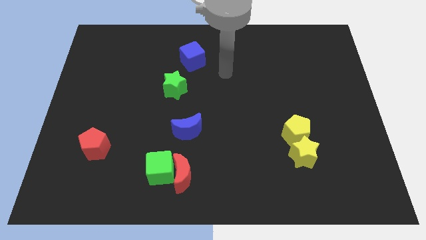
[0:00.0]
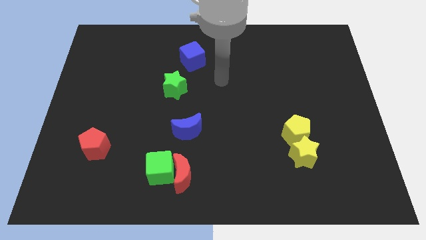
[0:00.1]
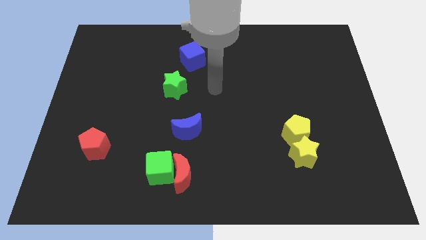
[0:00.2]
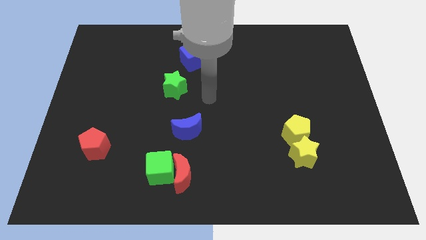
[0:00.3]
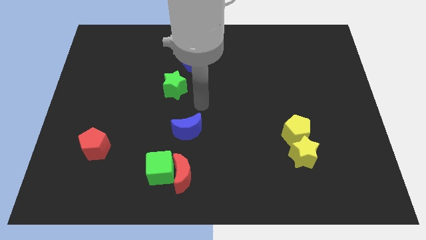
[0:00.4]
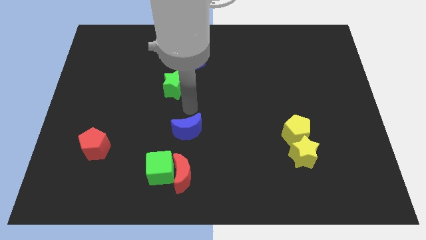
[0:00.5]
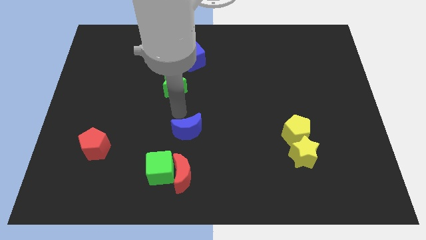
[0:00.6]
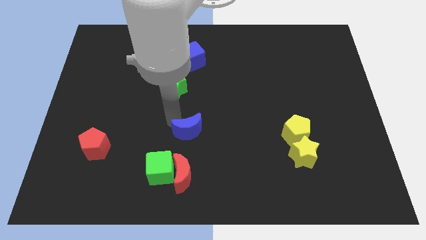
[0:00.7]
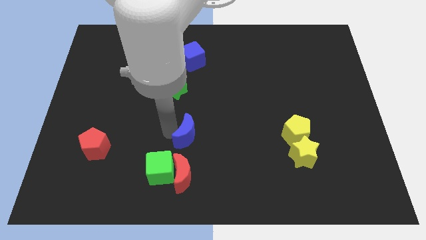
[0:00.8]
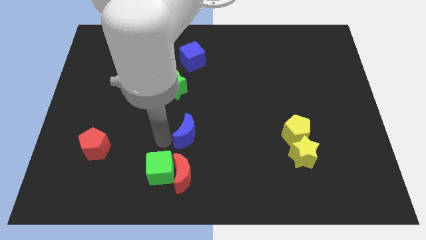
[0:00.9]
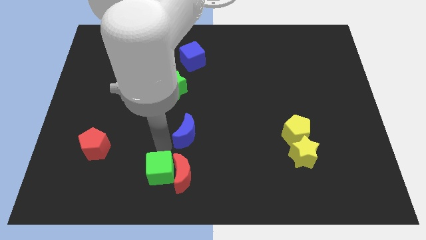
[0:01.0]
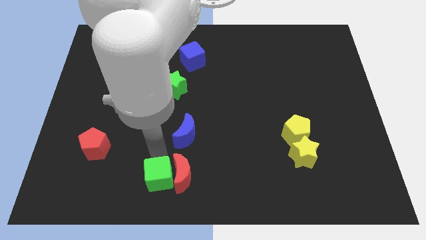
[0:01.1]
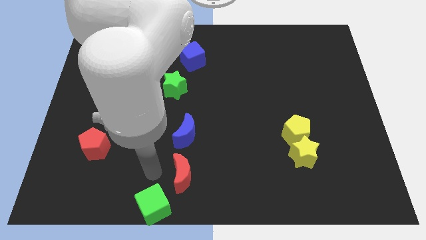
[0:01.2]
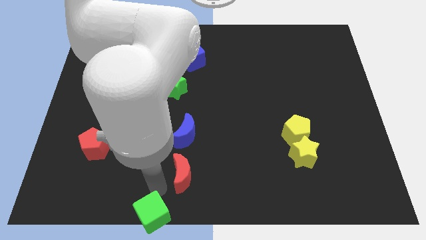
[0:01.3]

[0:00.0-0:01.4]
move the red moon away from the green cube

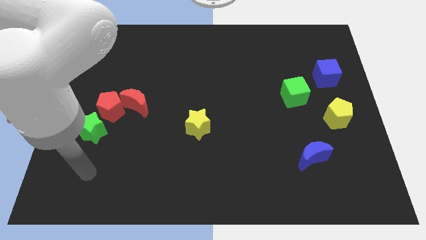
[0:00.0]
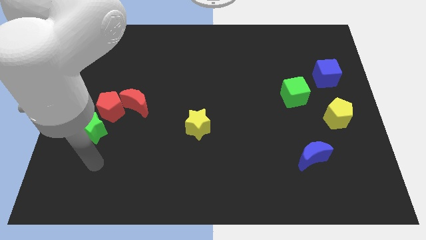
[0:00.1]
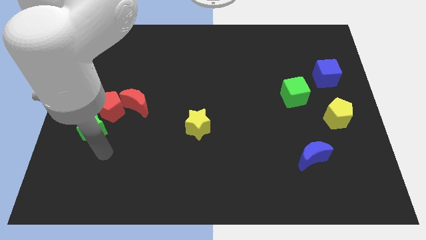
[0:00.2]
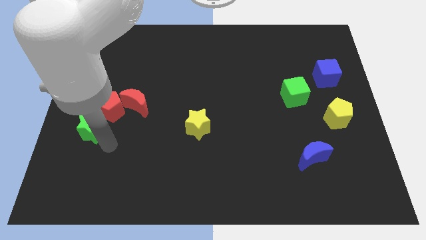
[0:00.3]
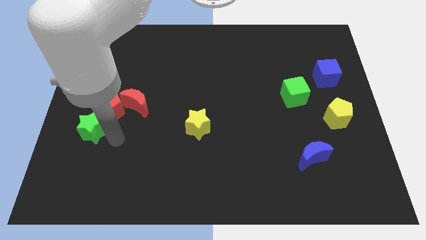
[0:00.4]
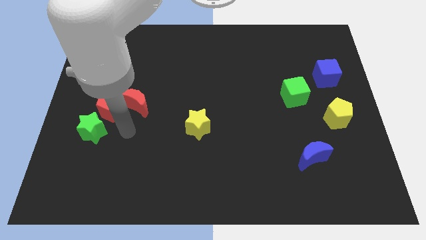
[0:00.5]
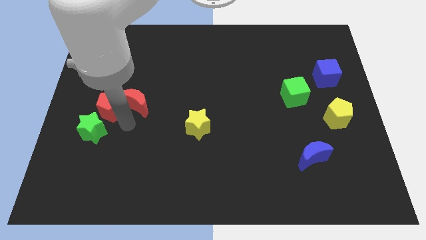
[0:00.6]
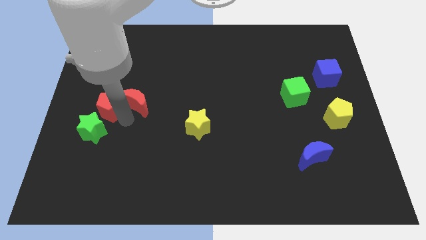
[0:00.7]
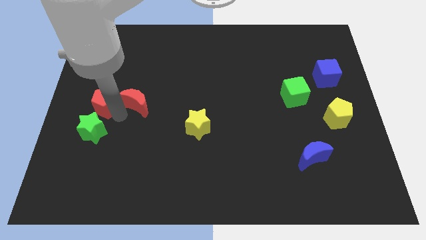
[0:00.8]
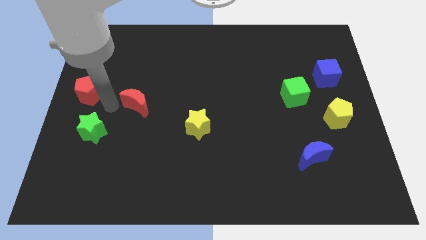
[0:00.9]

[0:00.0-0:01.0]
pull the red moon apart from the red pentagon

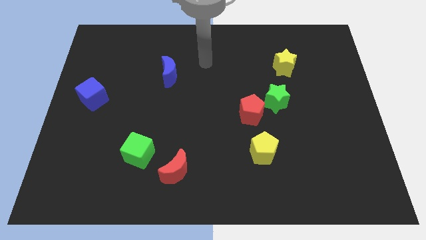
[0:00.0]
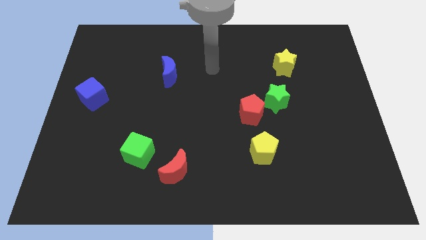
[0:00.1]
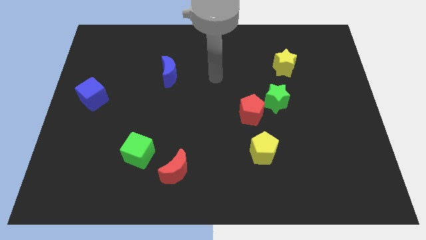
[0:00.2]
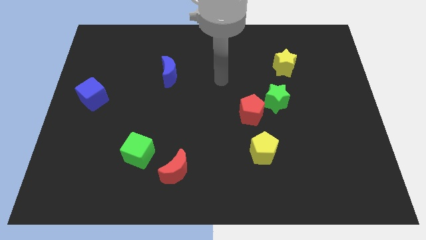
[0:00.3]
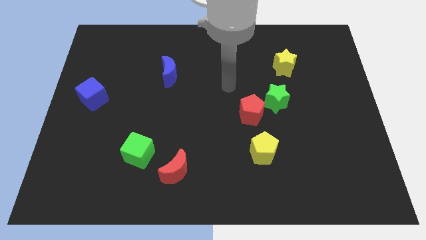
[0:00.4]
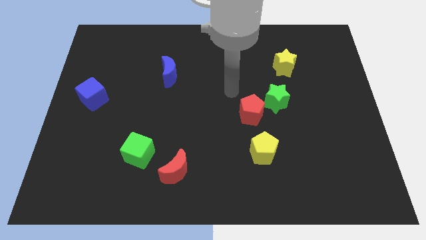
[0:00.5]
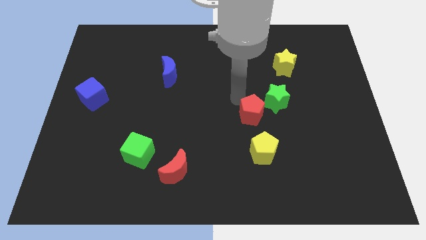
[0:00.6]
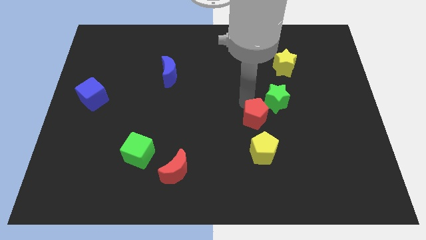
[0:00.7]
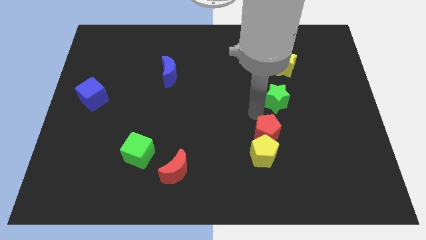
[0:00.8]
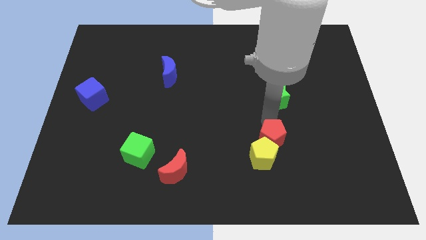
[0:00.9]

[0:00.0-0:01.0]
pull the green star apart from the red pentagon

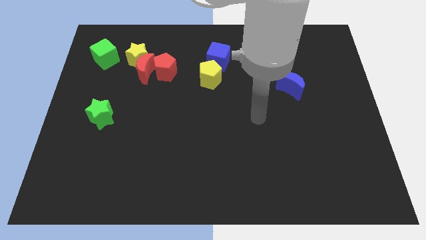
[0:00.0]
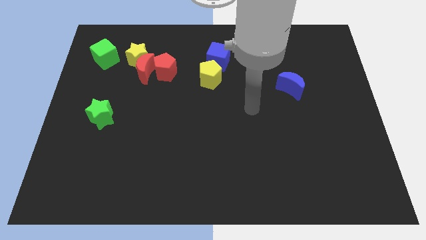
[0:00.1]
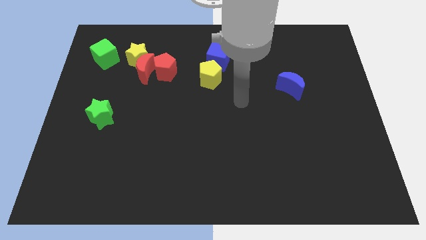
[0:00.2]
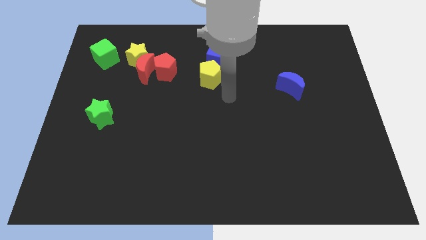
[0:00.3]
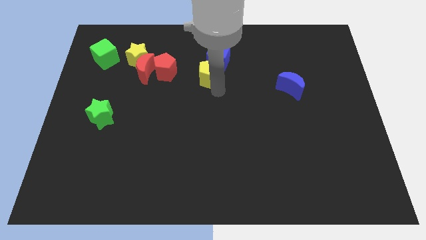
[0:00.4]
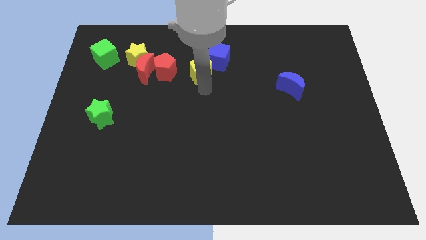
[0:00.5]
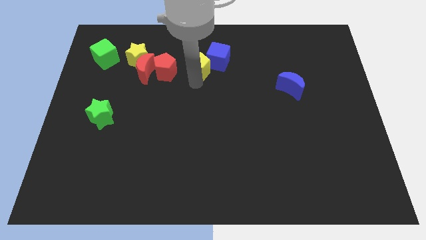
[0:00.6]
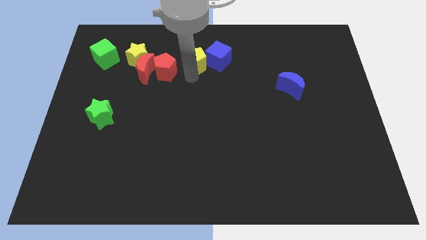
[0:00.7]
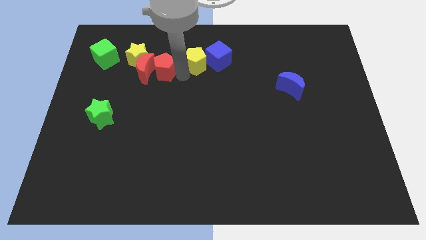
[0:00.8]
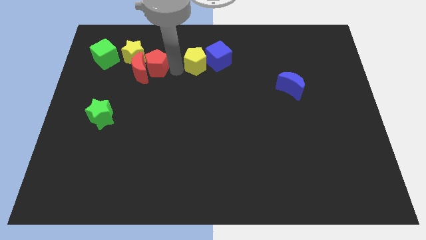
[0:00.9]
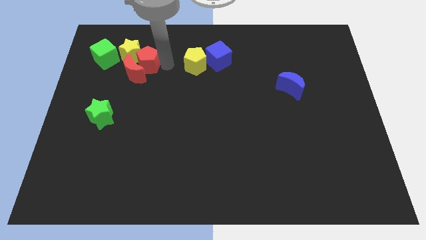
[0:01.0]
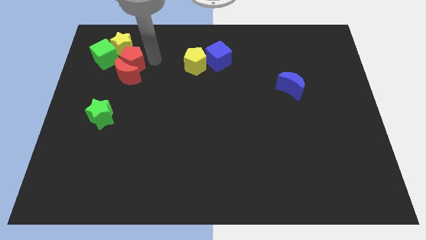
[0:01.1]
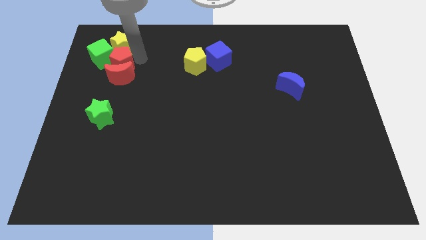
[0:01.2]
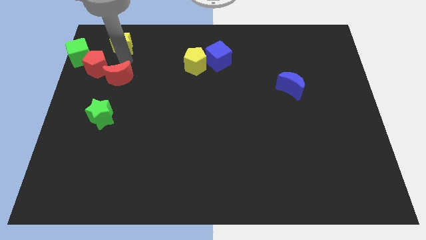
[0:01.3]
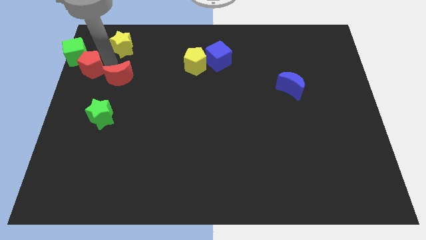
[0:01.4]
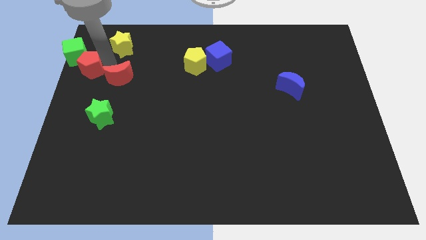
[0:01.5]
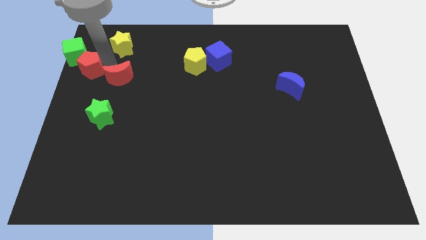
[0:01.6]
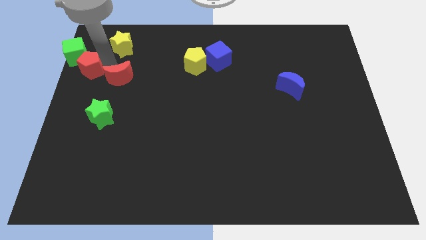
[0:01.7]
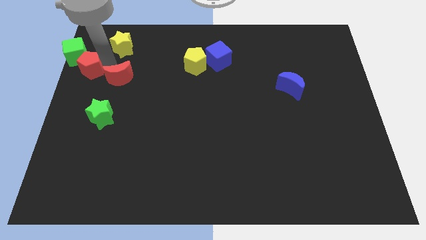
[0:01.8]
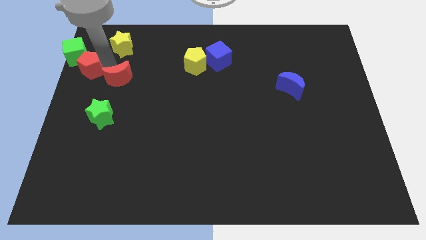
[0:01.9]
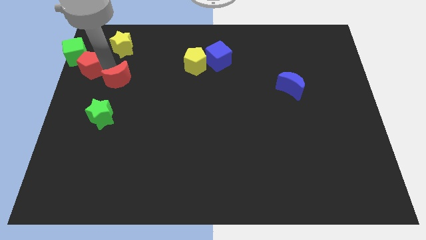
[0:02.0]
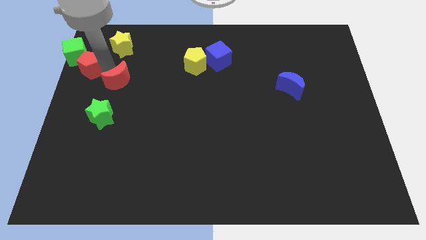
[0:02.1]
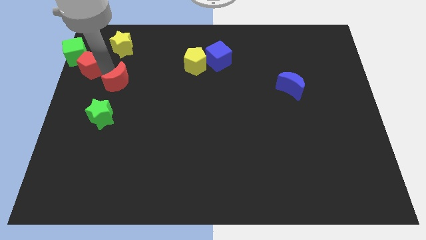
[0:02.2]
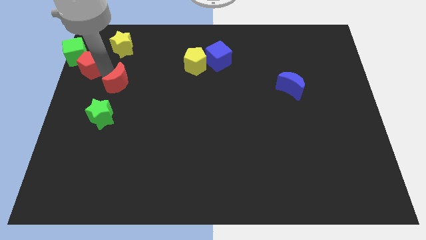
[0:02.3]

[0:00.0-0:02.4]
move the red moon away from the yellow star and red pentagon

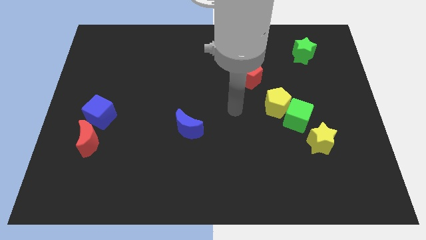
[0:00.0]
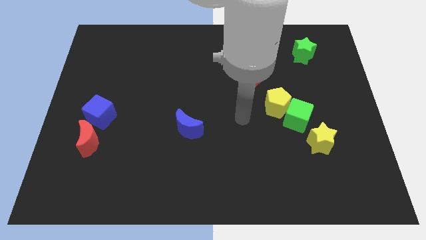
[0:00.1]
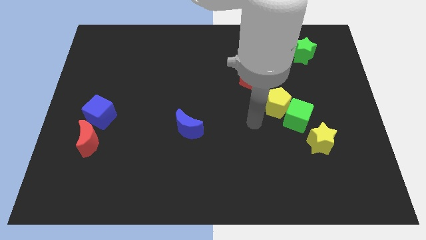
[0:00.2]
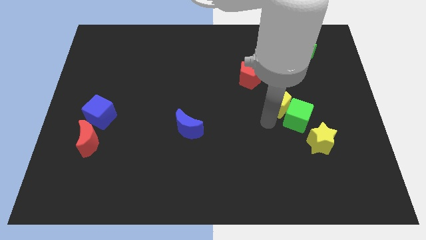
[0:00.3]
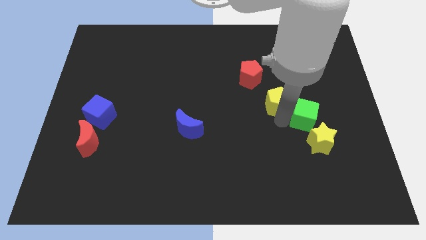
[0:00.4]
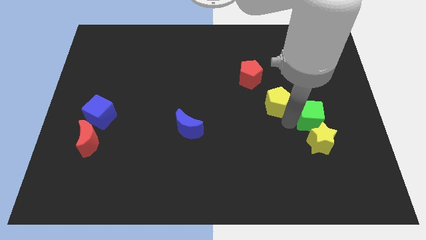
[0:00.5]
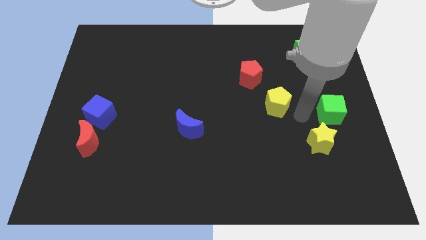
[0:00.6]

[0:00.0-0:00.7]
move the yellow pentagon away from the green cube

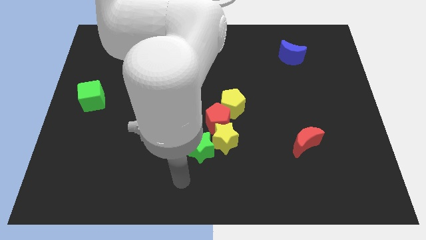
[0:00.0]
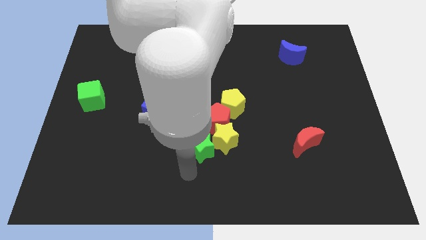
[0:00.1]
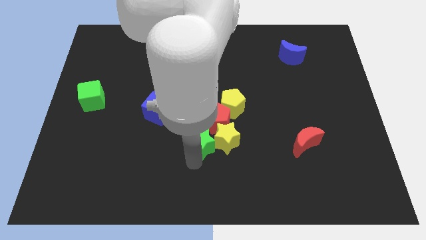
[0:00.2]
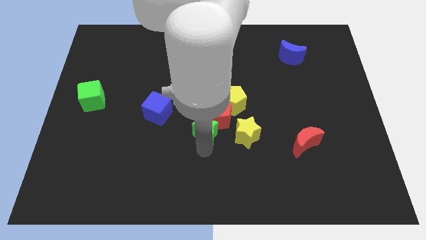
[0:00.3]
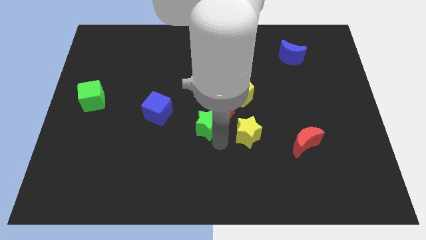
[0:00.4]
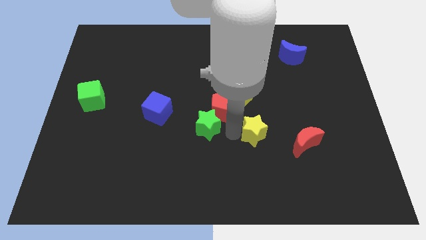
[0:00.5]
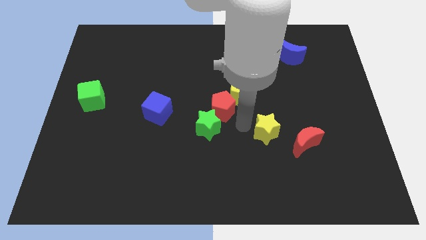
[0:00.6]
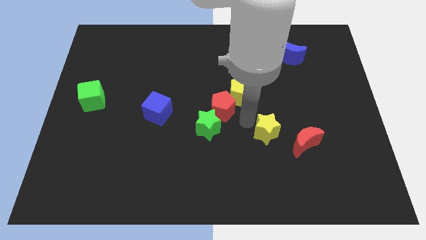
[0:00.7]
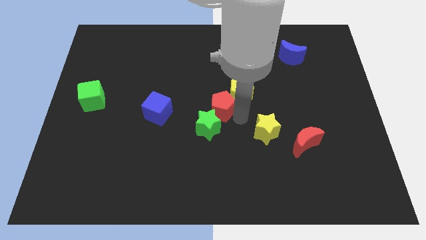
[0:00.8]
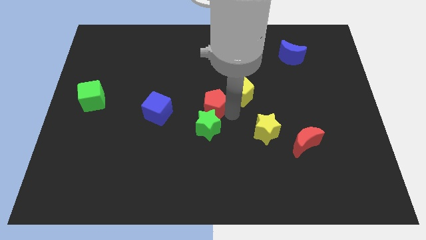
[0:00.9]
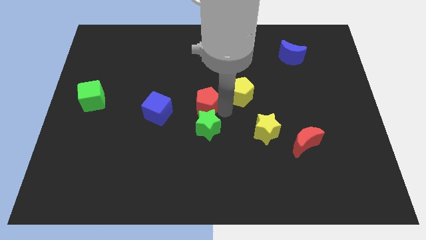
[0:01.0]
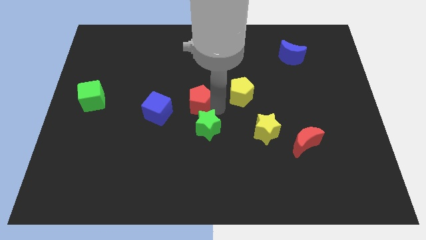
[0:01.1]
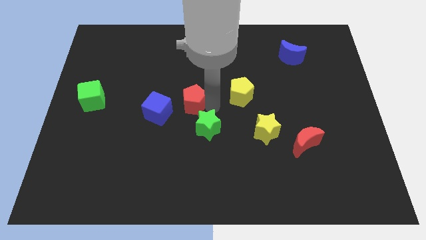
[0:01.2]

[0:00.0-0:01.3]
move the red pentagon away from the yellow star, yellow pentagon, and green star

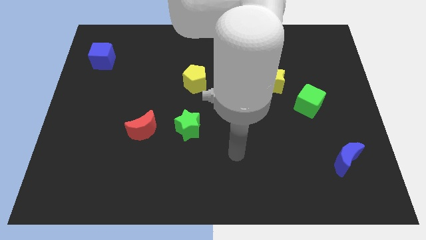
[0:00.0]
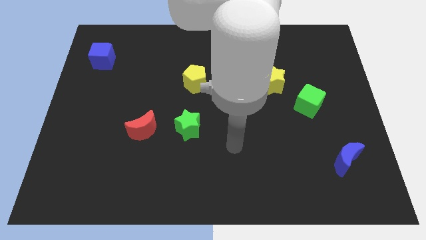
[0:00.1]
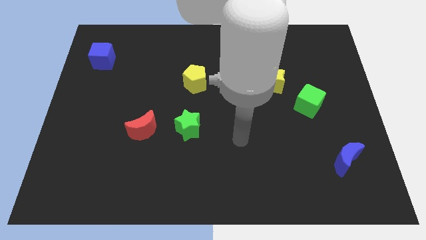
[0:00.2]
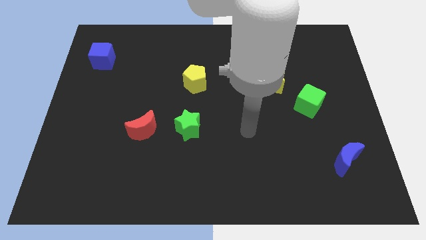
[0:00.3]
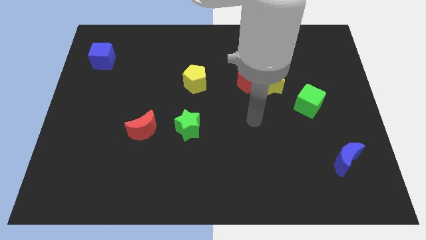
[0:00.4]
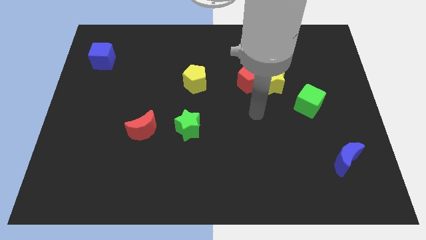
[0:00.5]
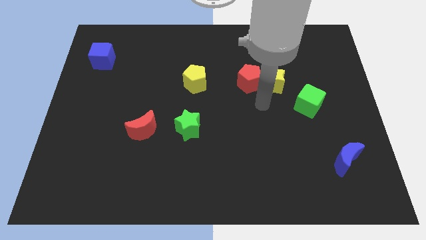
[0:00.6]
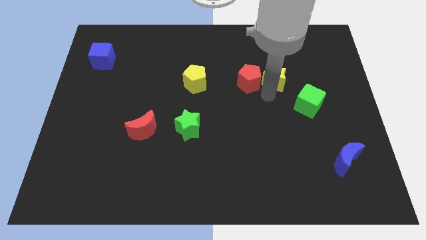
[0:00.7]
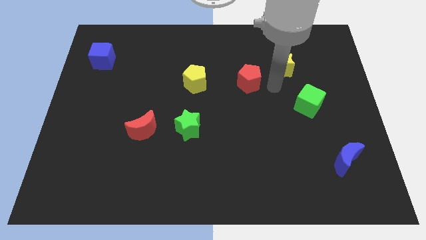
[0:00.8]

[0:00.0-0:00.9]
move the red pentagon away from the yellow star

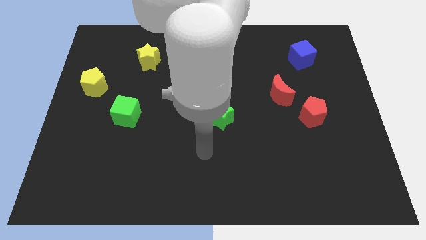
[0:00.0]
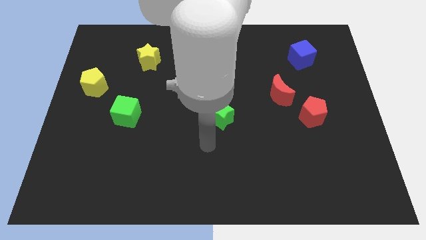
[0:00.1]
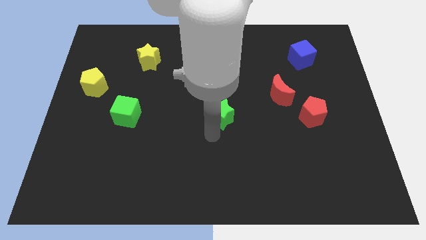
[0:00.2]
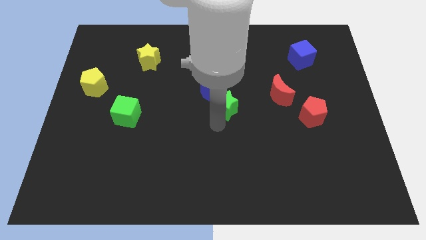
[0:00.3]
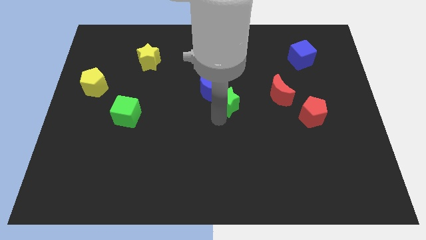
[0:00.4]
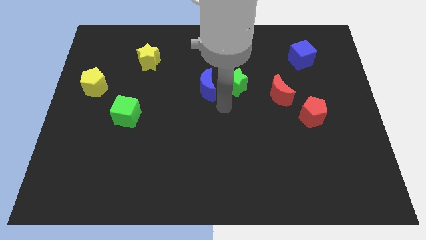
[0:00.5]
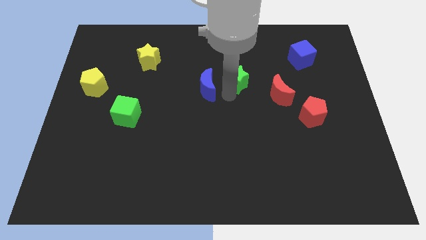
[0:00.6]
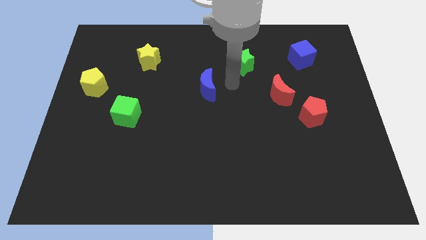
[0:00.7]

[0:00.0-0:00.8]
move the blue moon away from the green star
